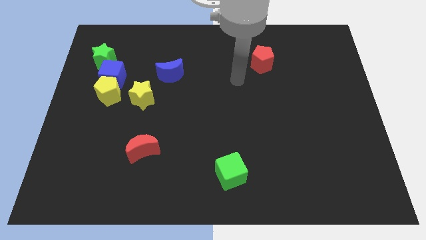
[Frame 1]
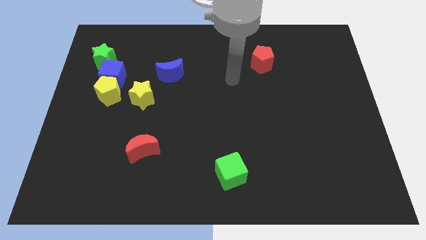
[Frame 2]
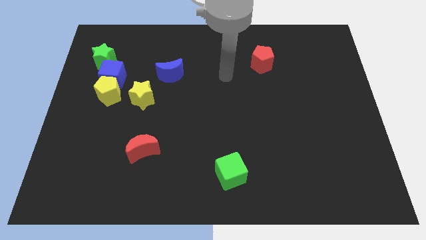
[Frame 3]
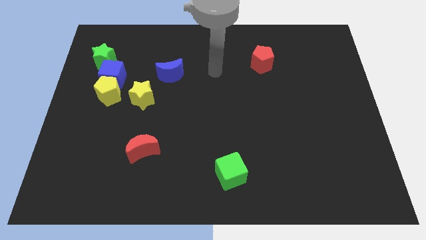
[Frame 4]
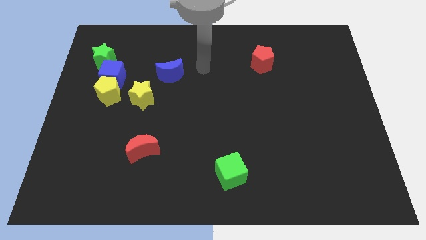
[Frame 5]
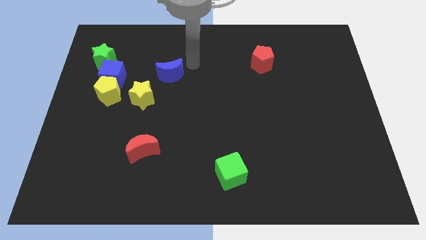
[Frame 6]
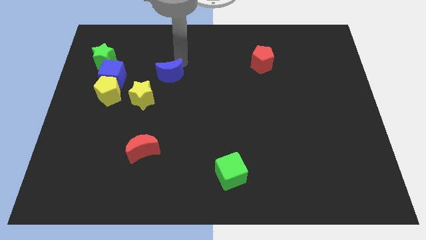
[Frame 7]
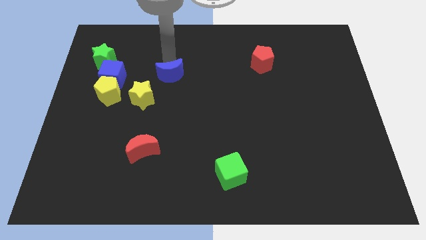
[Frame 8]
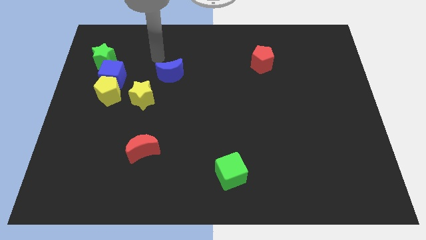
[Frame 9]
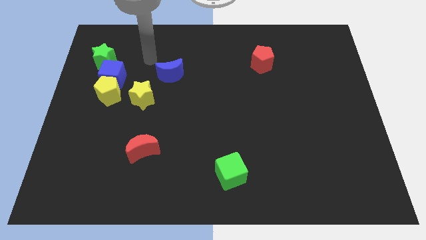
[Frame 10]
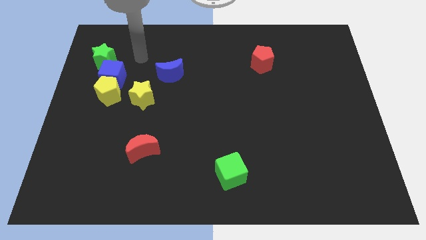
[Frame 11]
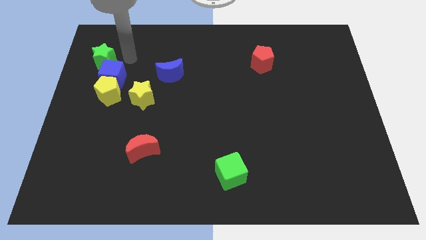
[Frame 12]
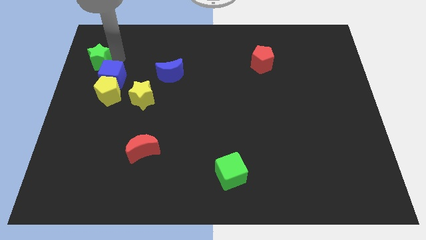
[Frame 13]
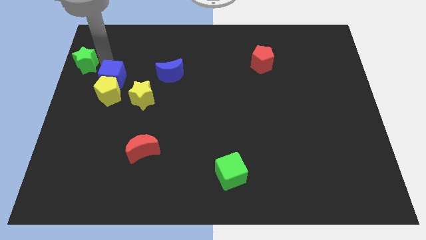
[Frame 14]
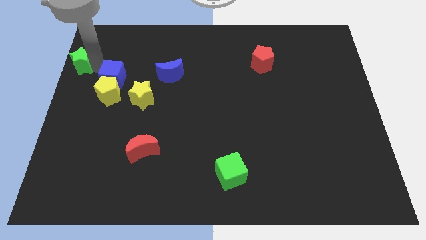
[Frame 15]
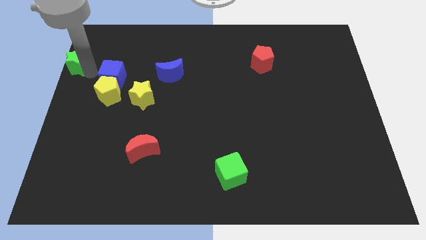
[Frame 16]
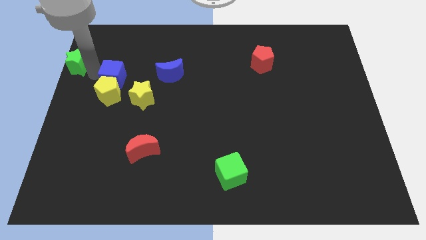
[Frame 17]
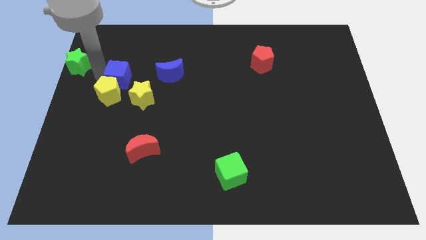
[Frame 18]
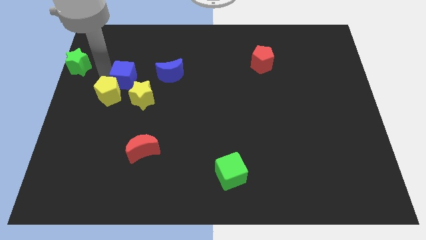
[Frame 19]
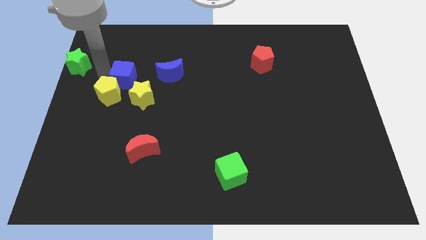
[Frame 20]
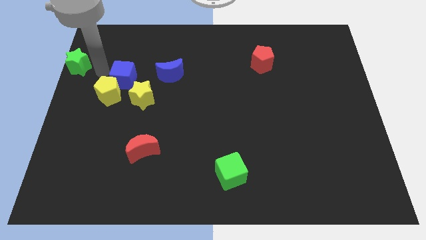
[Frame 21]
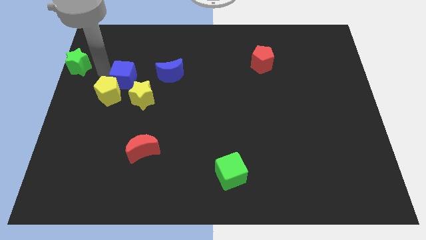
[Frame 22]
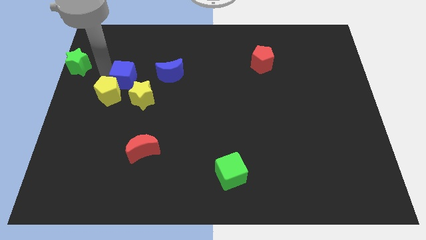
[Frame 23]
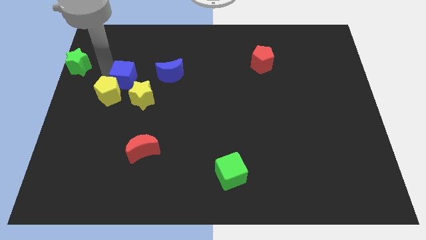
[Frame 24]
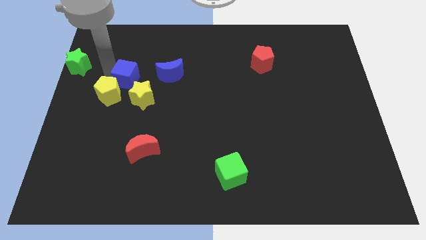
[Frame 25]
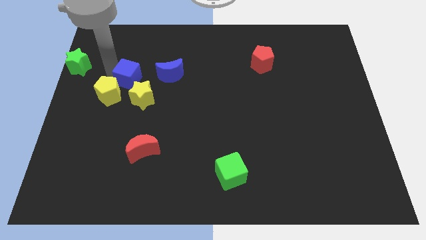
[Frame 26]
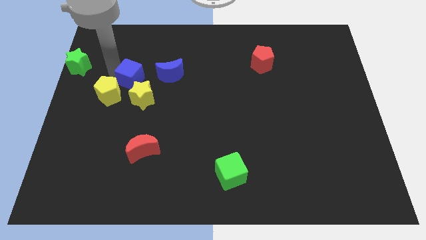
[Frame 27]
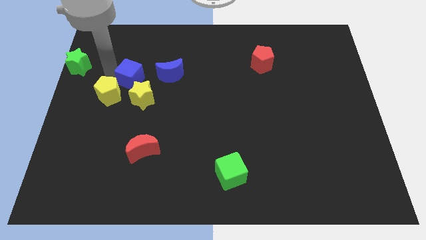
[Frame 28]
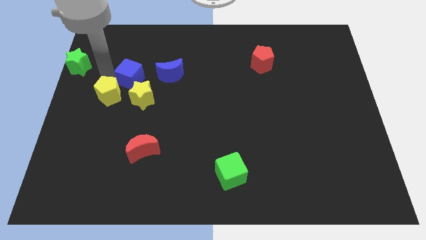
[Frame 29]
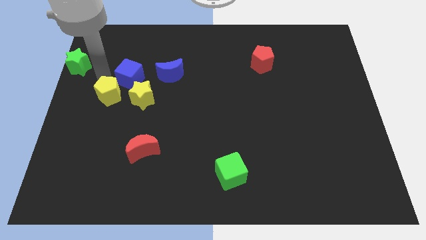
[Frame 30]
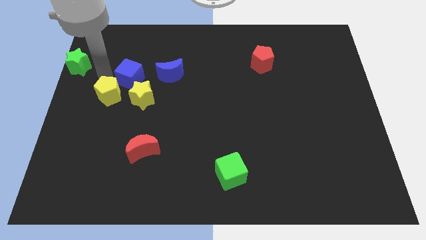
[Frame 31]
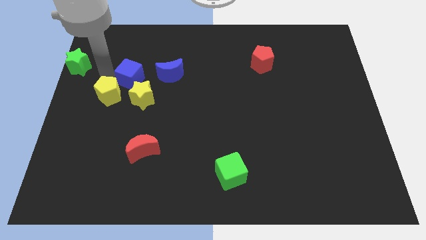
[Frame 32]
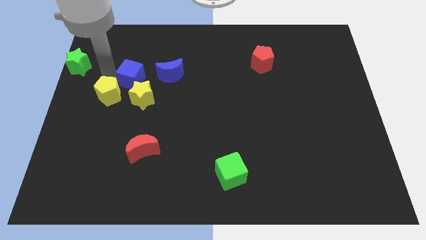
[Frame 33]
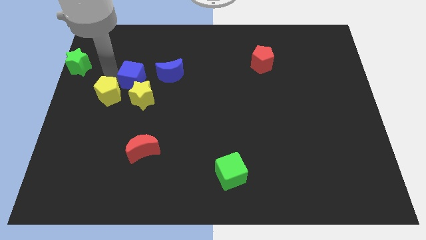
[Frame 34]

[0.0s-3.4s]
pull the blue cube apart from the yellow pentagon and green star

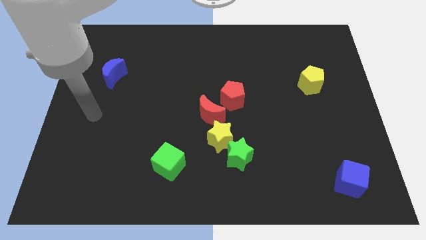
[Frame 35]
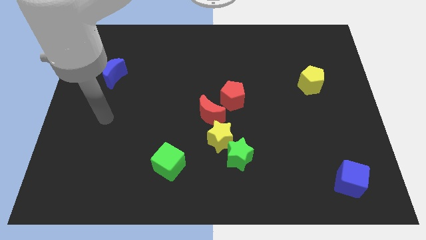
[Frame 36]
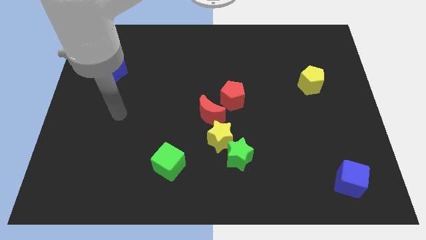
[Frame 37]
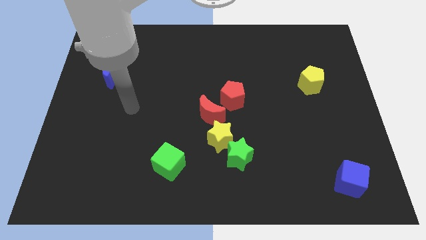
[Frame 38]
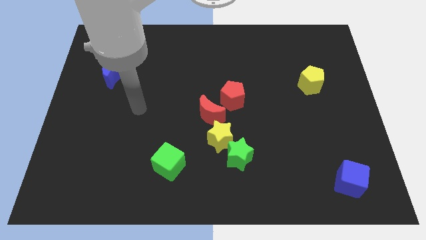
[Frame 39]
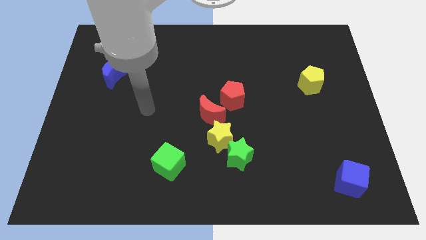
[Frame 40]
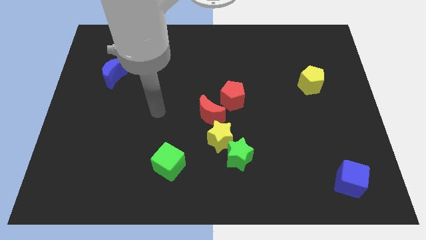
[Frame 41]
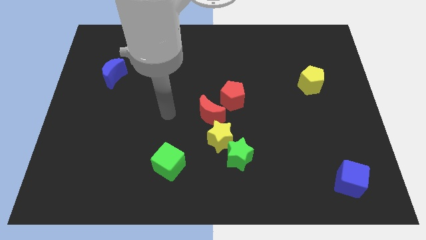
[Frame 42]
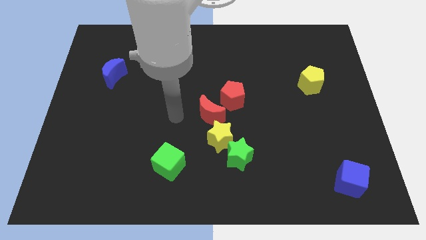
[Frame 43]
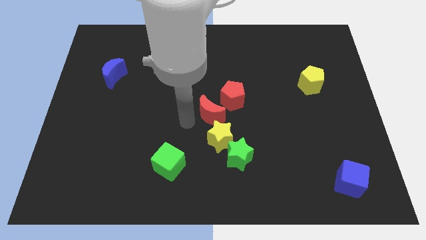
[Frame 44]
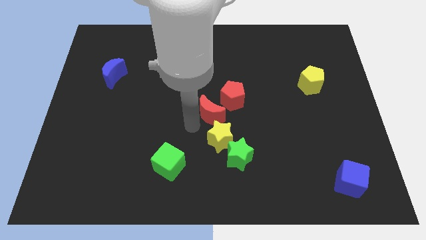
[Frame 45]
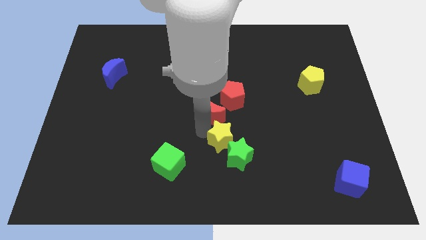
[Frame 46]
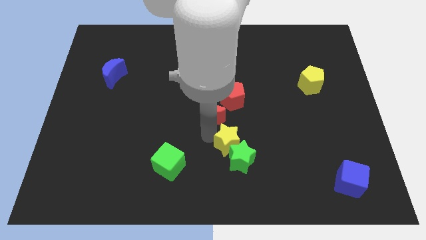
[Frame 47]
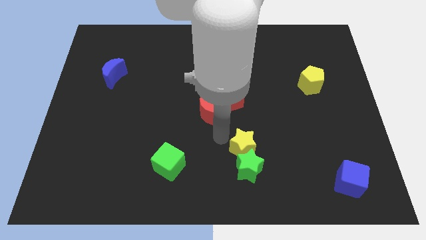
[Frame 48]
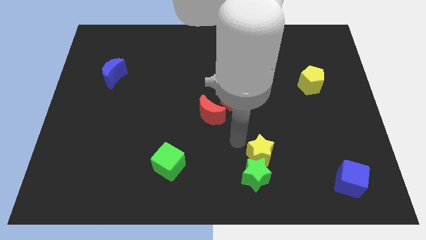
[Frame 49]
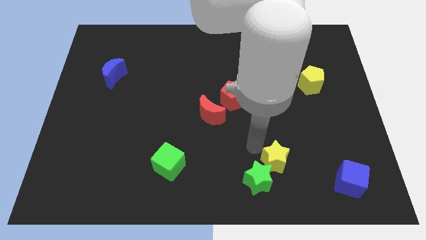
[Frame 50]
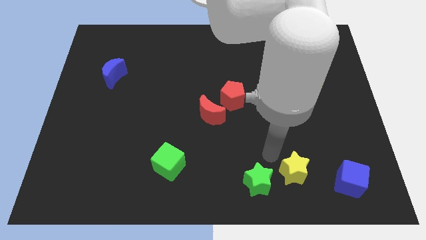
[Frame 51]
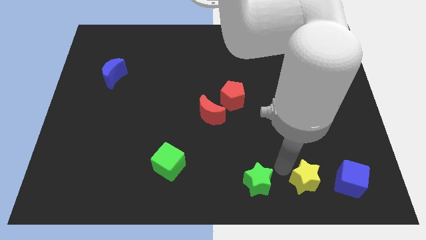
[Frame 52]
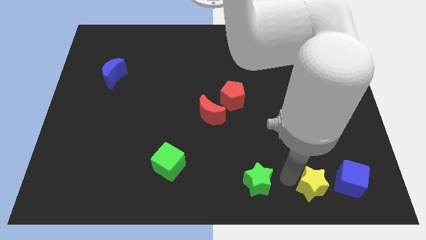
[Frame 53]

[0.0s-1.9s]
separate the green star from the yellow star

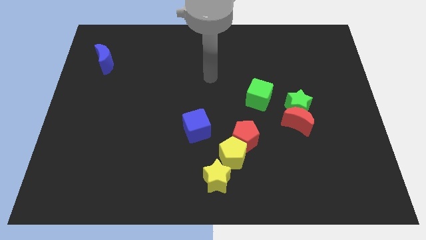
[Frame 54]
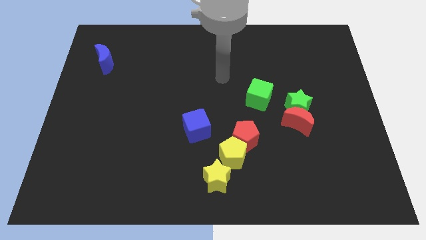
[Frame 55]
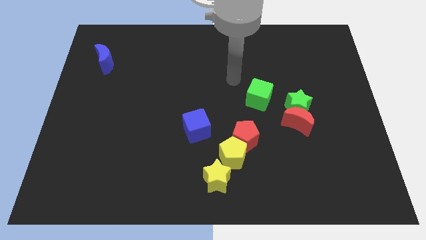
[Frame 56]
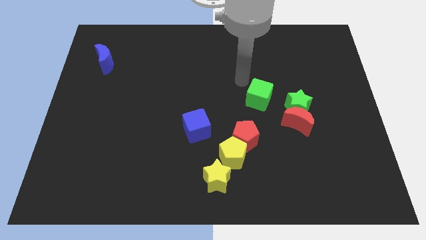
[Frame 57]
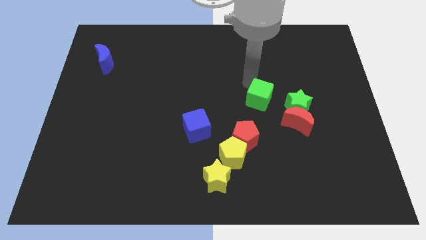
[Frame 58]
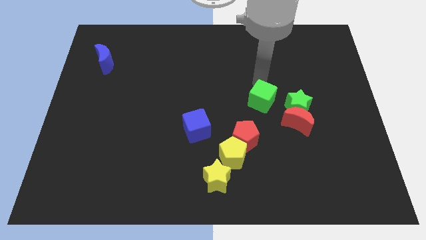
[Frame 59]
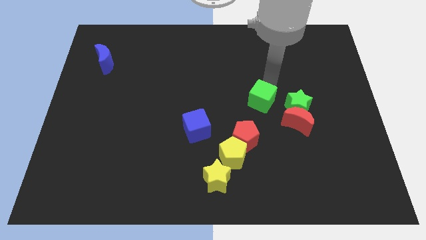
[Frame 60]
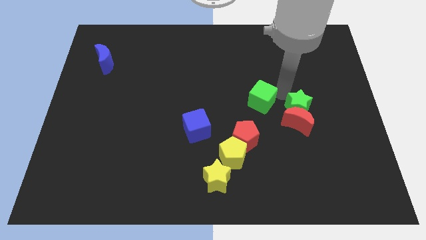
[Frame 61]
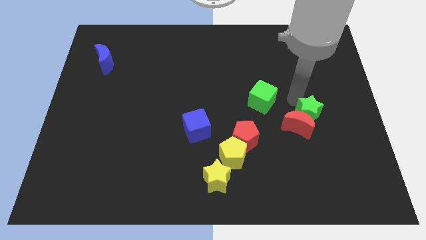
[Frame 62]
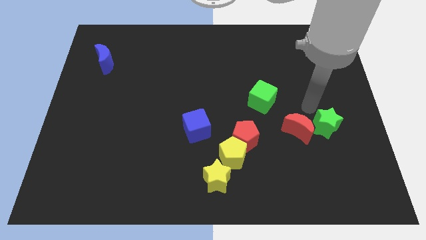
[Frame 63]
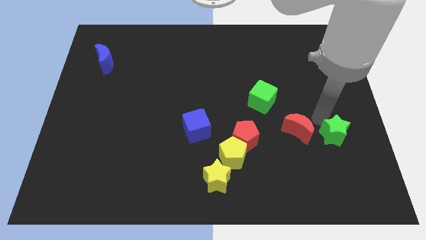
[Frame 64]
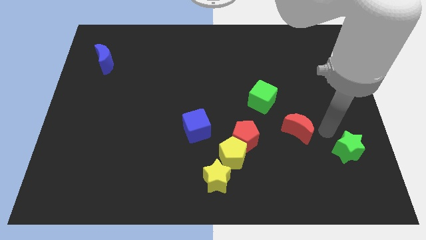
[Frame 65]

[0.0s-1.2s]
separate the red moon from the green star

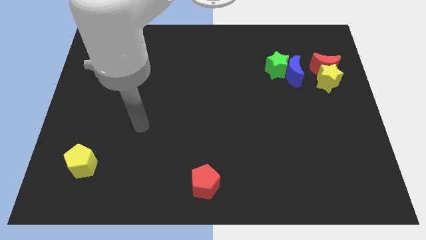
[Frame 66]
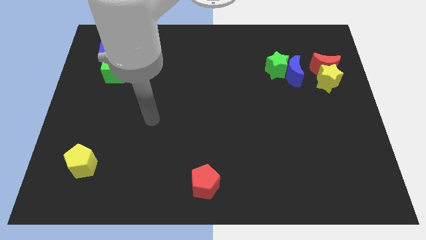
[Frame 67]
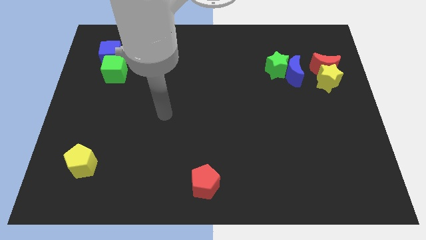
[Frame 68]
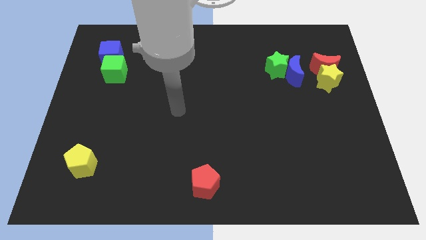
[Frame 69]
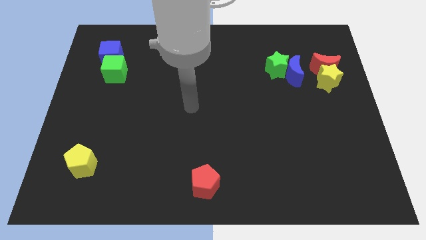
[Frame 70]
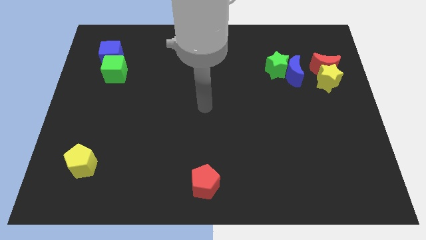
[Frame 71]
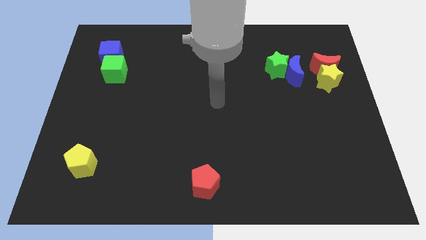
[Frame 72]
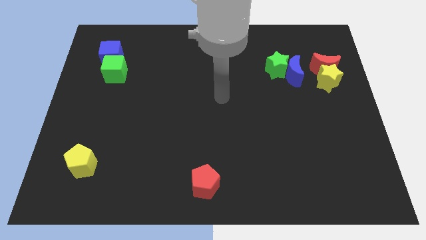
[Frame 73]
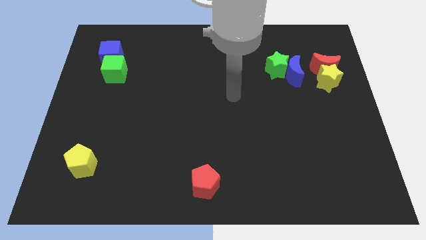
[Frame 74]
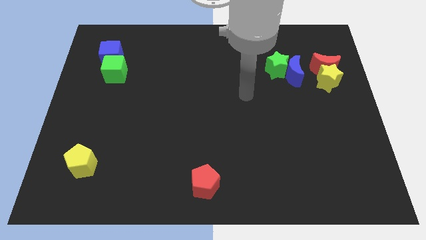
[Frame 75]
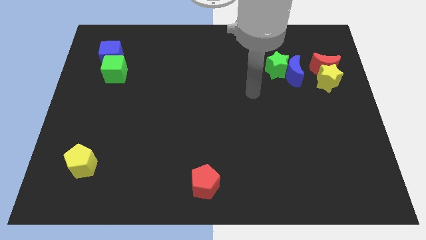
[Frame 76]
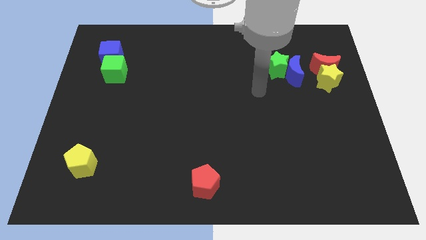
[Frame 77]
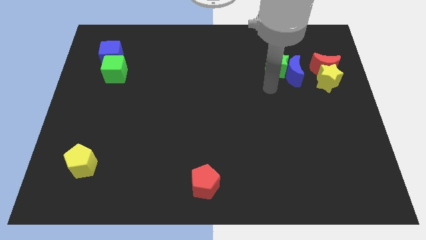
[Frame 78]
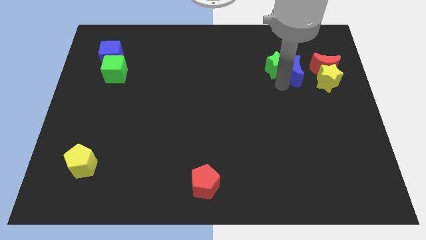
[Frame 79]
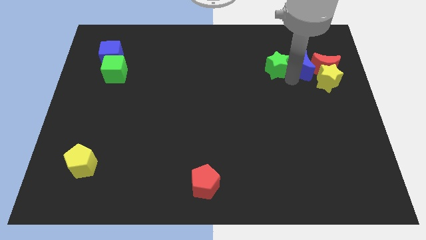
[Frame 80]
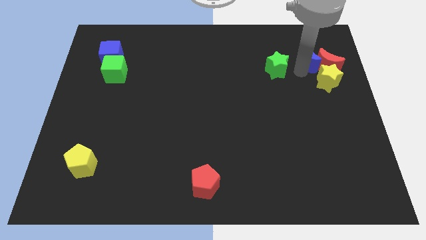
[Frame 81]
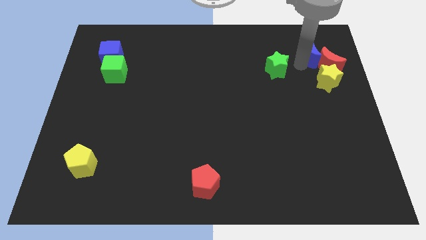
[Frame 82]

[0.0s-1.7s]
move the green star away from the blue moon

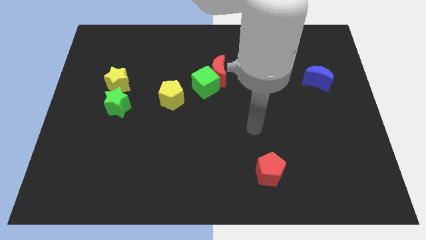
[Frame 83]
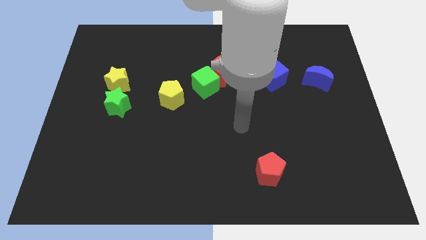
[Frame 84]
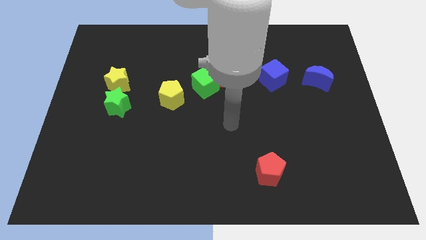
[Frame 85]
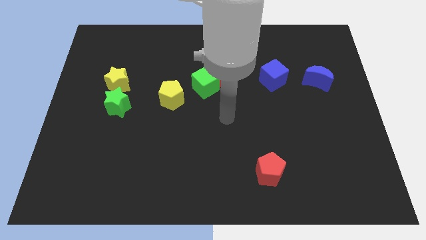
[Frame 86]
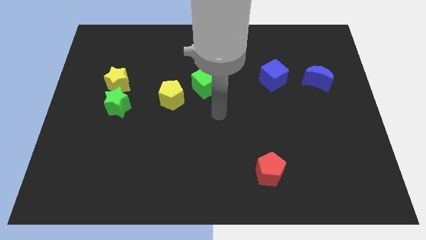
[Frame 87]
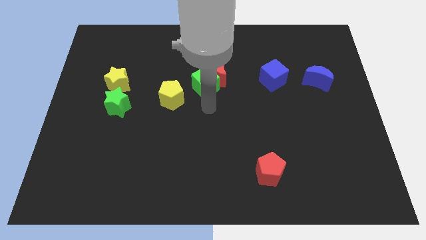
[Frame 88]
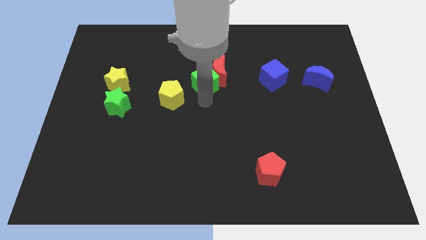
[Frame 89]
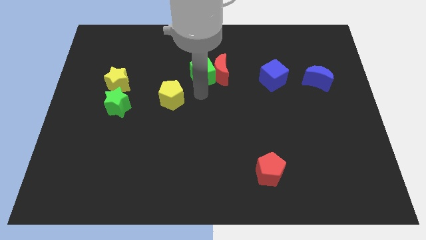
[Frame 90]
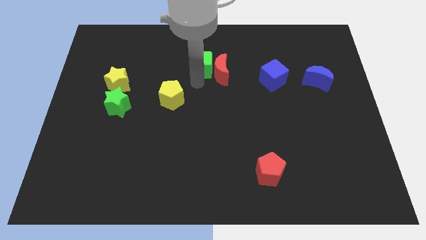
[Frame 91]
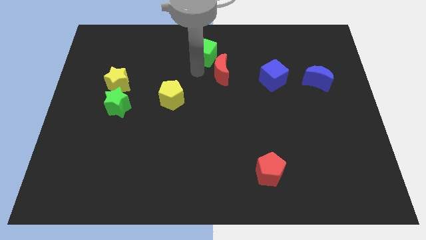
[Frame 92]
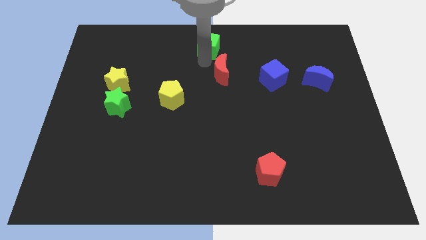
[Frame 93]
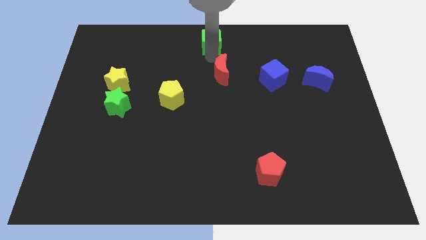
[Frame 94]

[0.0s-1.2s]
move the red moon away from the green cube

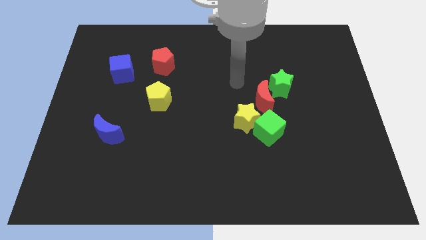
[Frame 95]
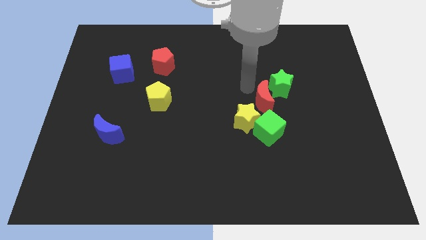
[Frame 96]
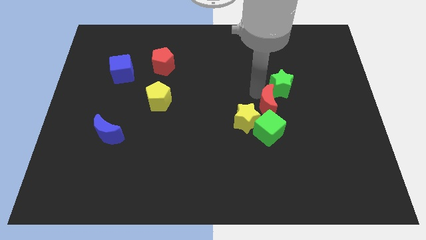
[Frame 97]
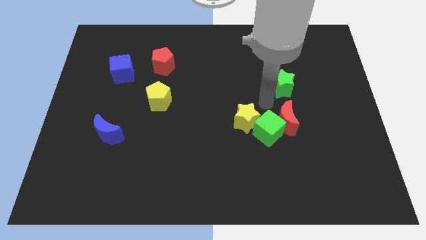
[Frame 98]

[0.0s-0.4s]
separate the green star from the red moon
